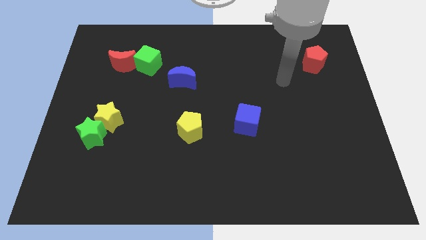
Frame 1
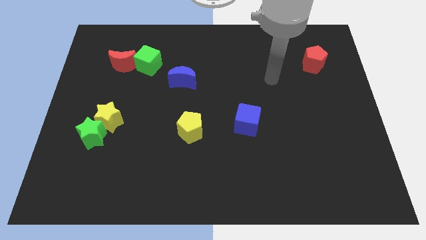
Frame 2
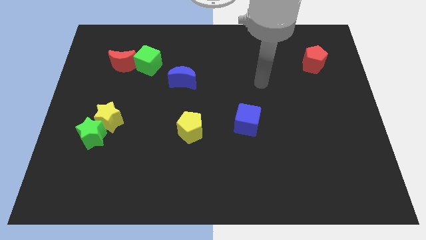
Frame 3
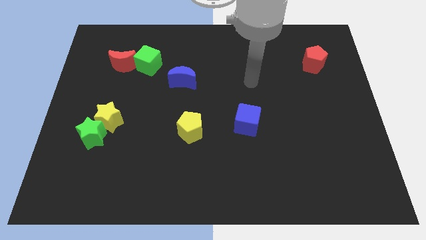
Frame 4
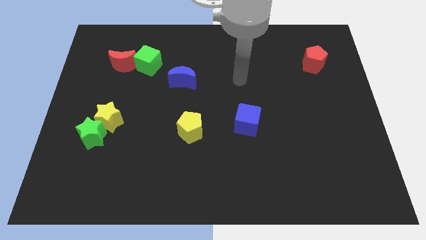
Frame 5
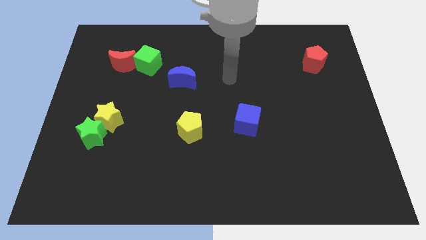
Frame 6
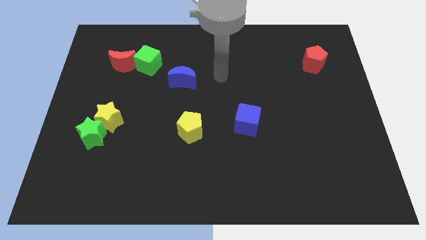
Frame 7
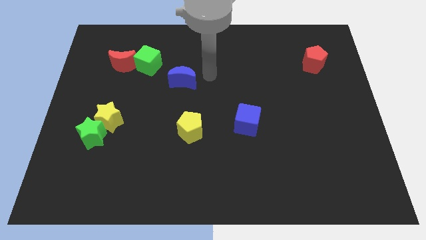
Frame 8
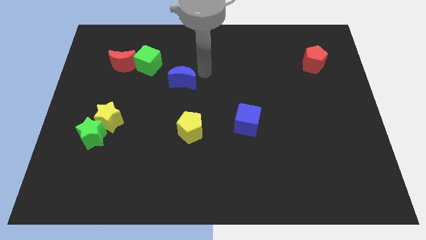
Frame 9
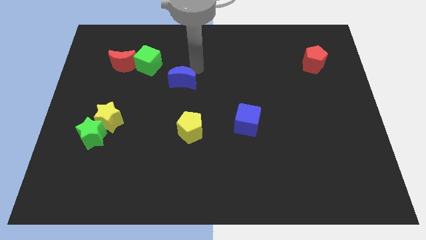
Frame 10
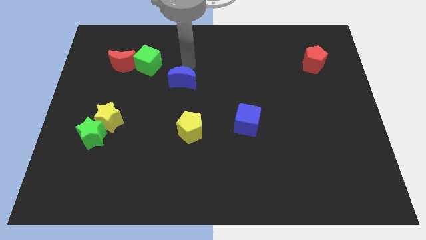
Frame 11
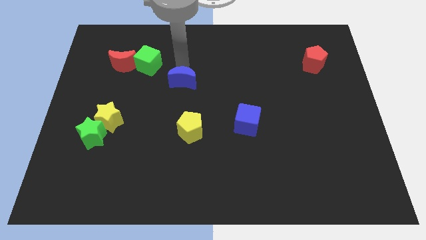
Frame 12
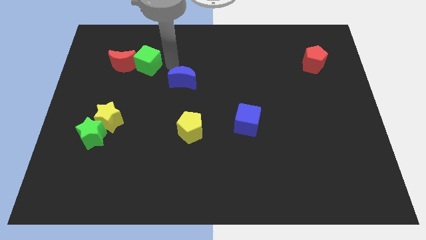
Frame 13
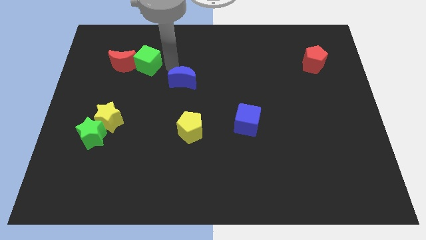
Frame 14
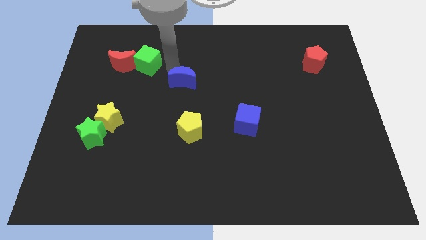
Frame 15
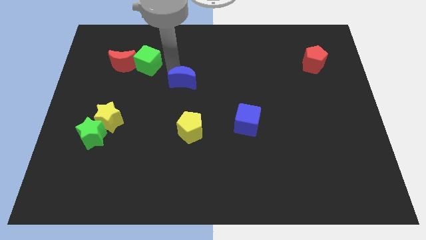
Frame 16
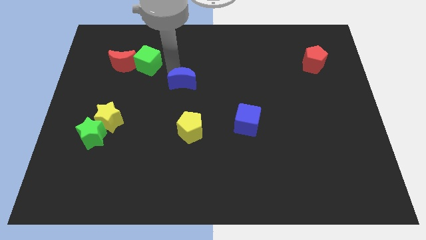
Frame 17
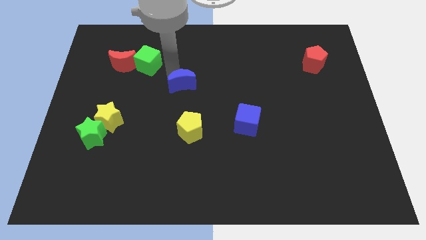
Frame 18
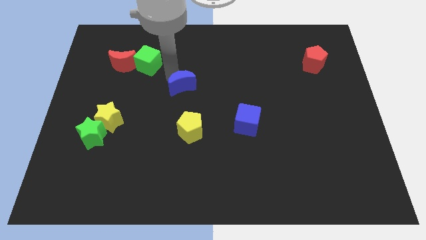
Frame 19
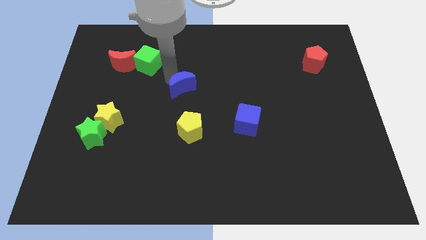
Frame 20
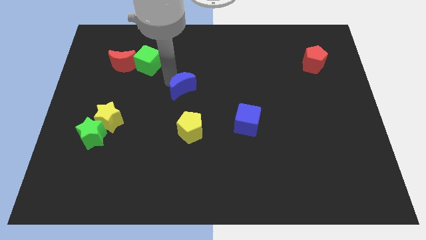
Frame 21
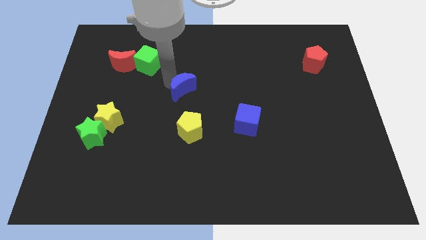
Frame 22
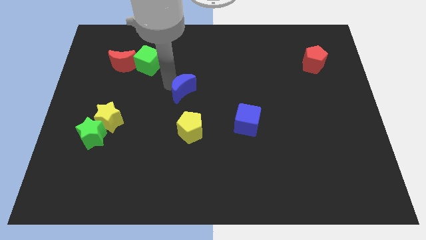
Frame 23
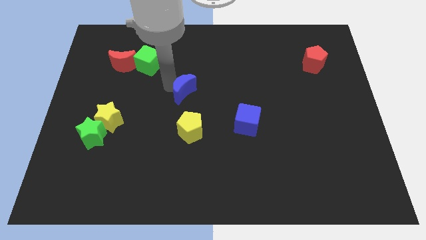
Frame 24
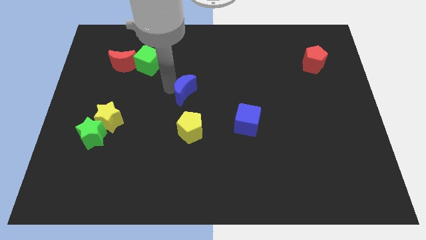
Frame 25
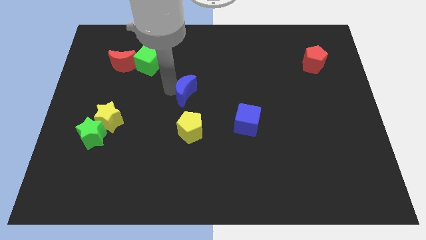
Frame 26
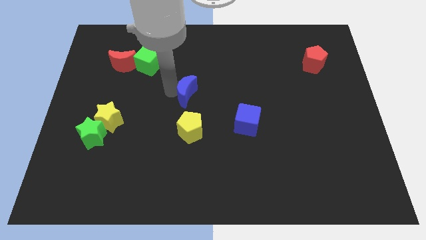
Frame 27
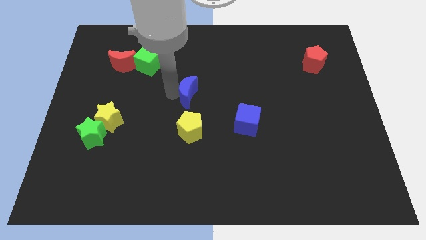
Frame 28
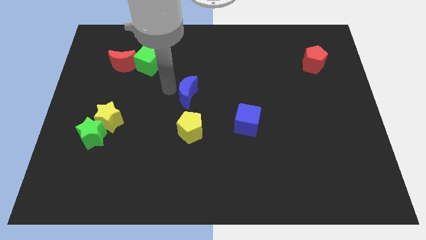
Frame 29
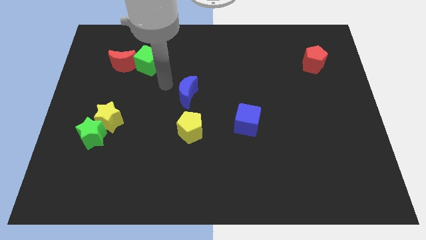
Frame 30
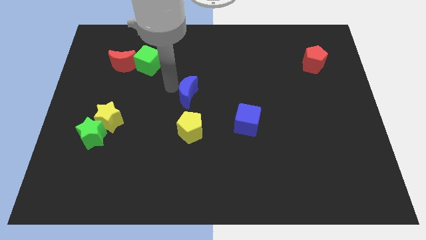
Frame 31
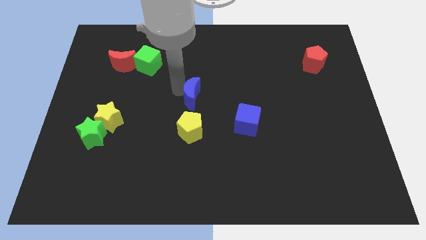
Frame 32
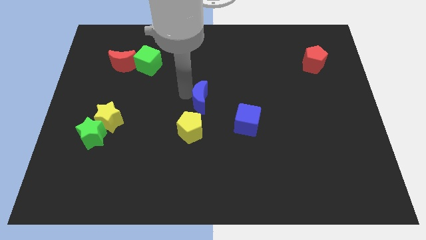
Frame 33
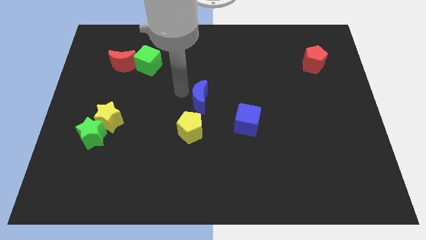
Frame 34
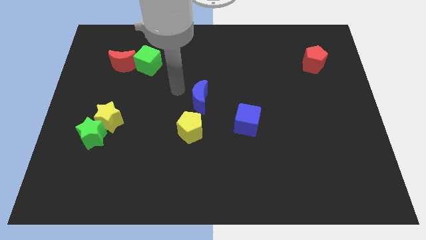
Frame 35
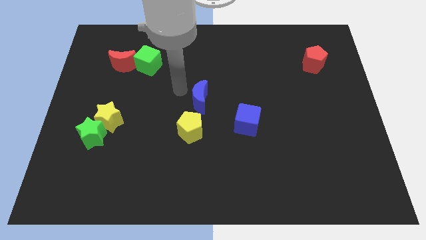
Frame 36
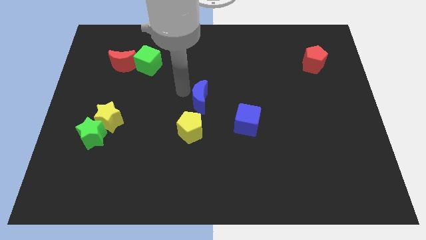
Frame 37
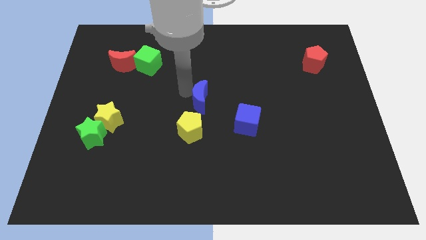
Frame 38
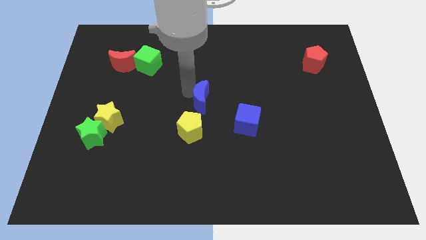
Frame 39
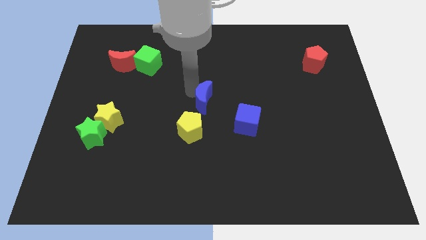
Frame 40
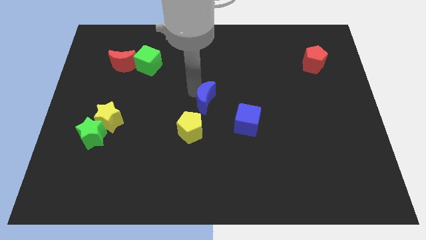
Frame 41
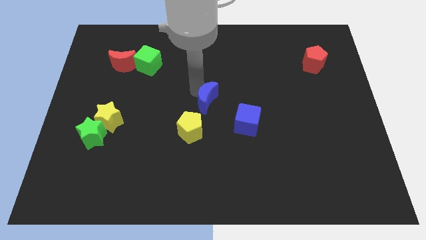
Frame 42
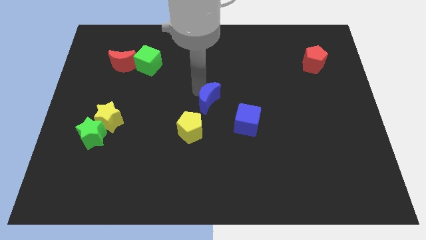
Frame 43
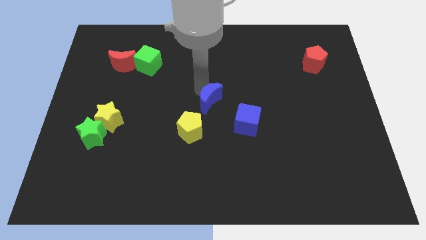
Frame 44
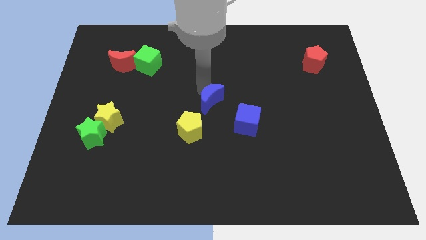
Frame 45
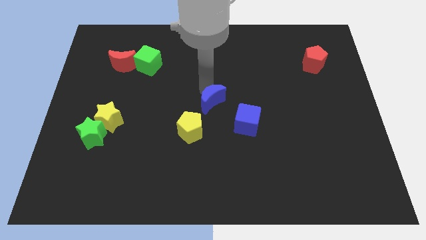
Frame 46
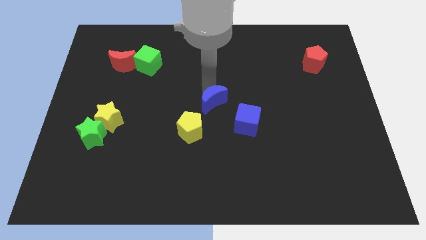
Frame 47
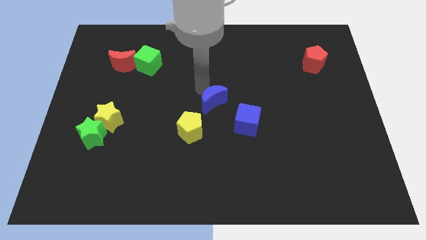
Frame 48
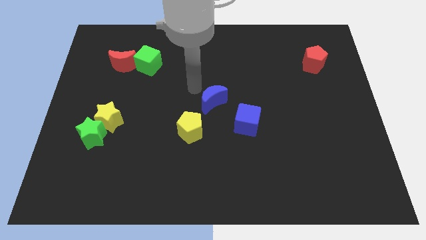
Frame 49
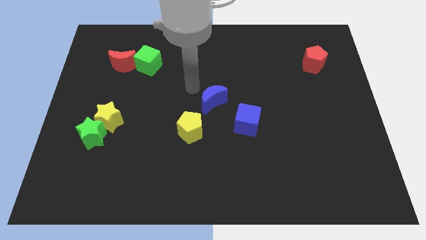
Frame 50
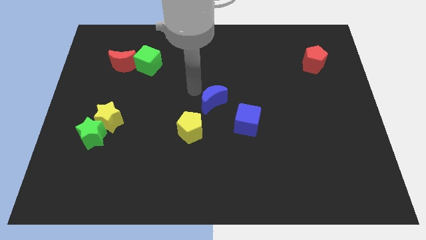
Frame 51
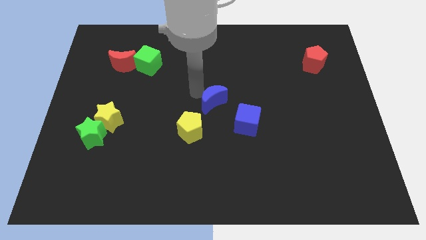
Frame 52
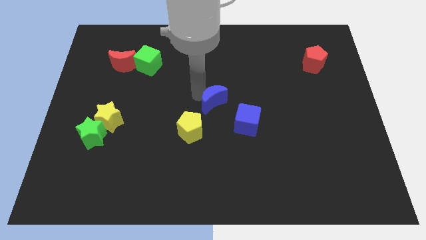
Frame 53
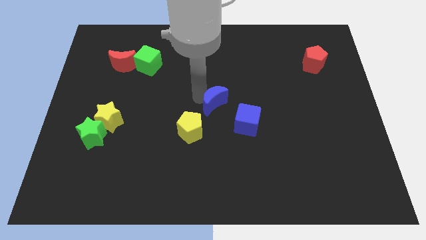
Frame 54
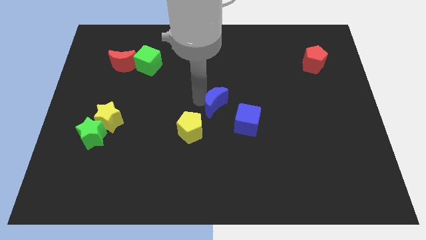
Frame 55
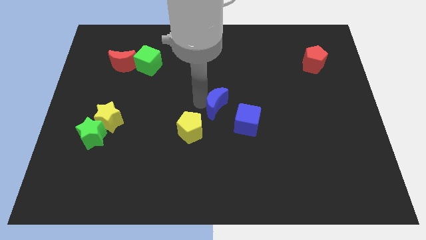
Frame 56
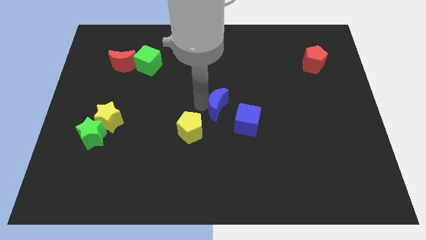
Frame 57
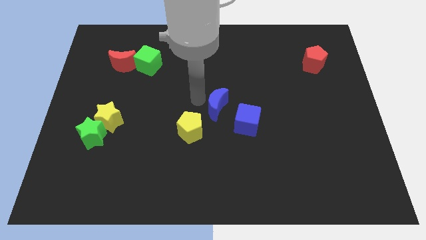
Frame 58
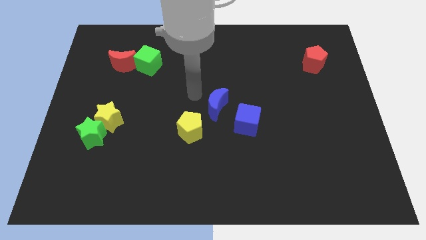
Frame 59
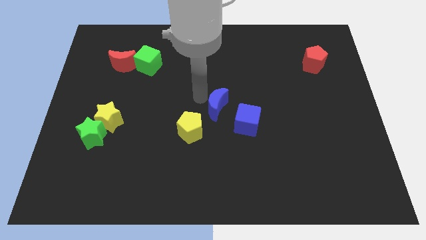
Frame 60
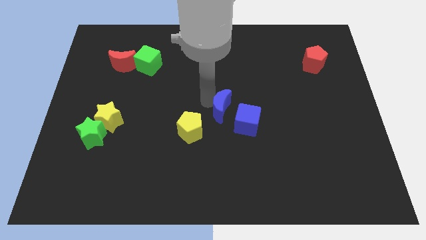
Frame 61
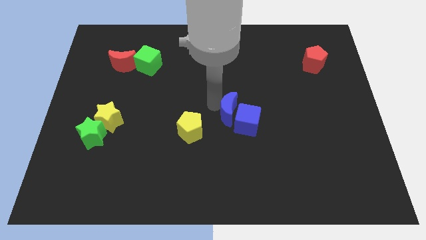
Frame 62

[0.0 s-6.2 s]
move the blue moon next to the blue cube

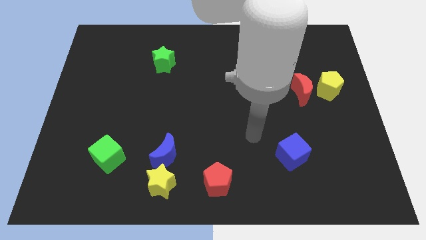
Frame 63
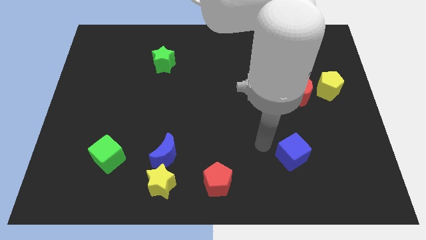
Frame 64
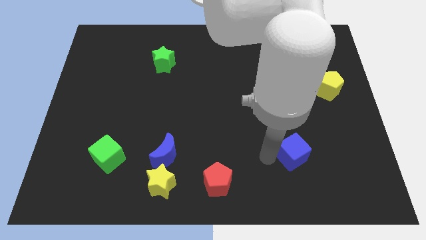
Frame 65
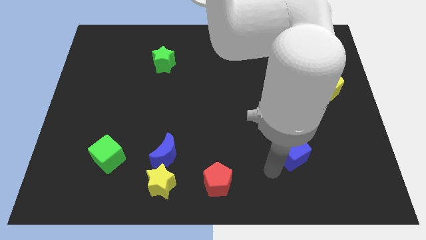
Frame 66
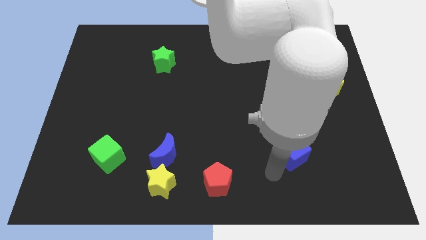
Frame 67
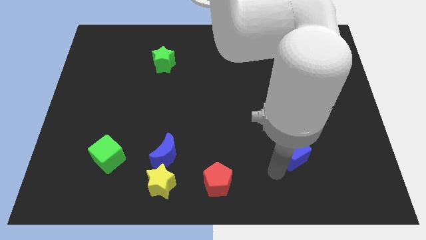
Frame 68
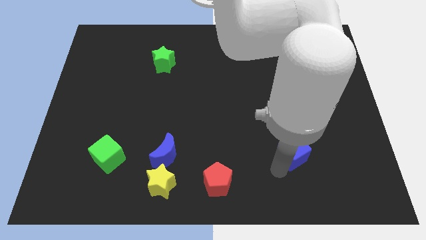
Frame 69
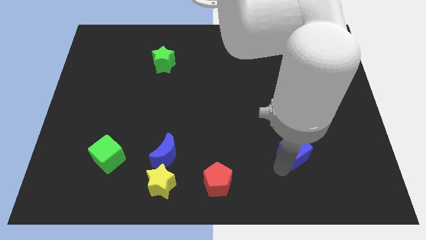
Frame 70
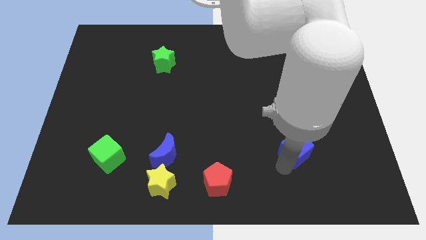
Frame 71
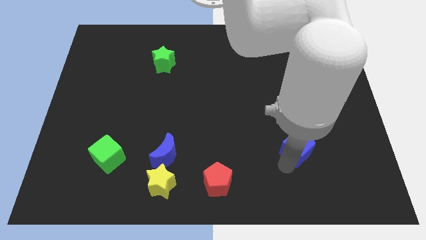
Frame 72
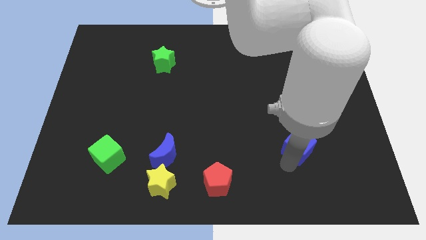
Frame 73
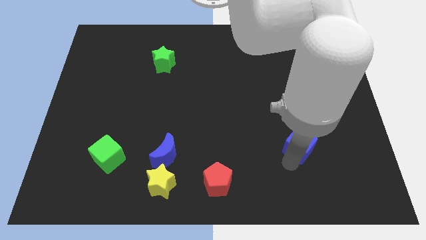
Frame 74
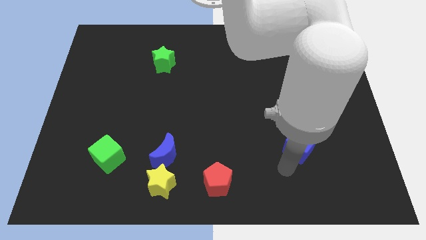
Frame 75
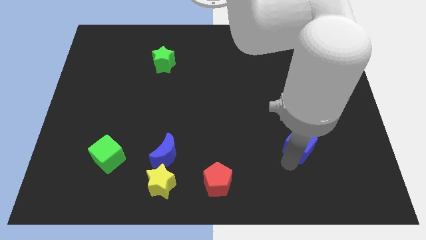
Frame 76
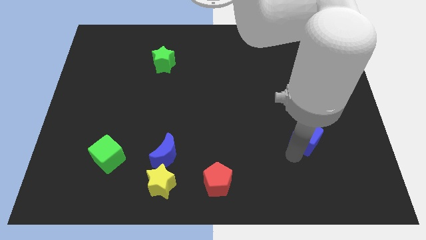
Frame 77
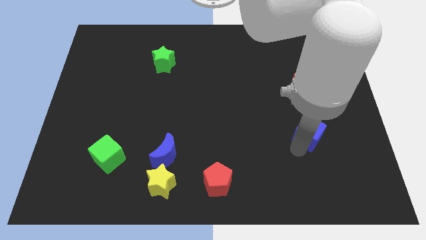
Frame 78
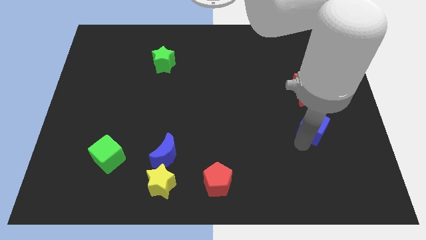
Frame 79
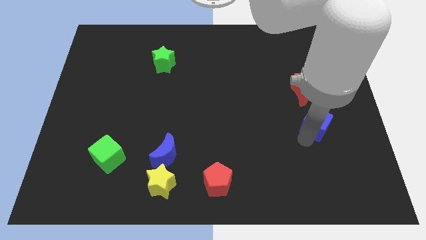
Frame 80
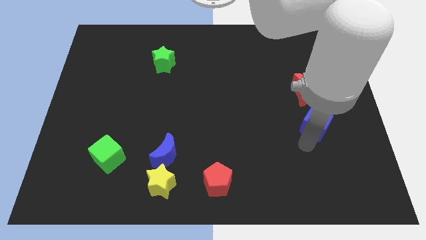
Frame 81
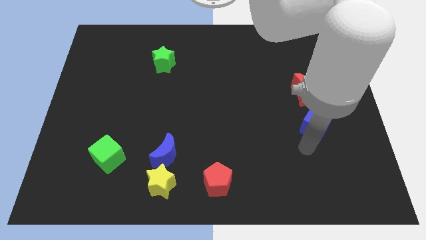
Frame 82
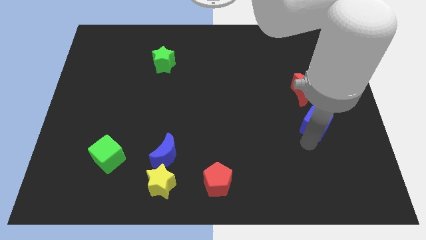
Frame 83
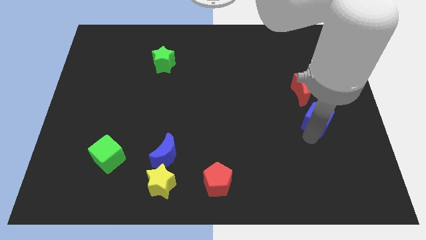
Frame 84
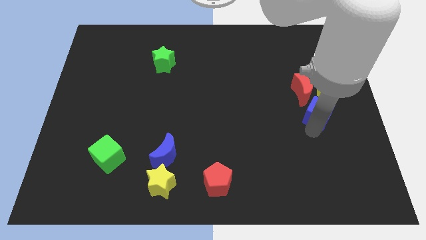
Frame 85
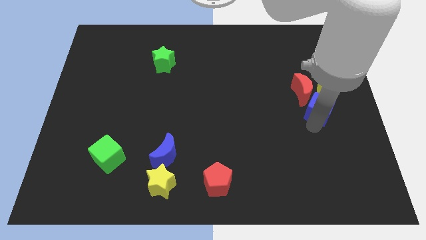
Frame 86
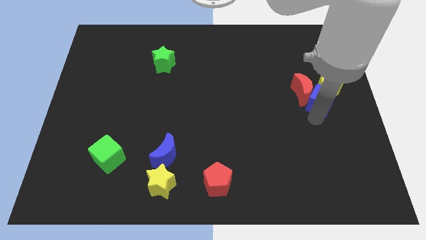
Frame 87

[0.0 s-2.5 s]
push the blue cube towards the yellow pentagon
